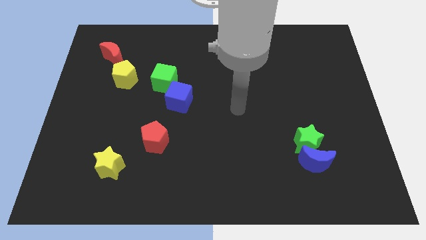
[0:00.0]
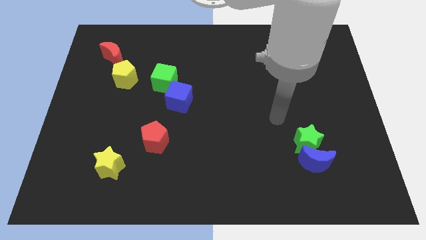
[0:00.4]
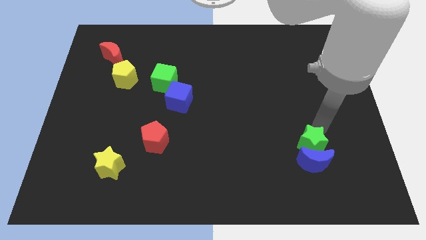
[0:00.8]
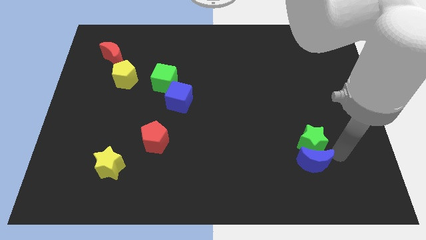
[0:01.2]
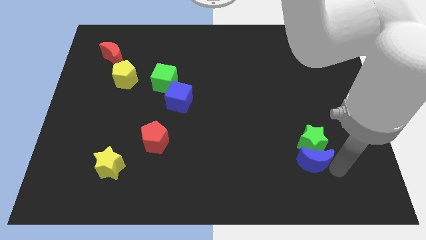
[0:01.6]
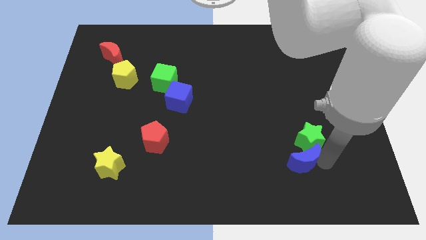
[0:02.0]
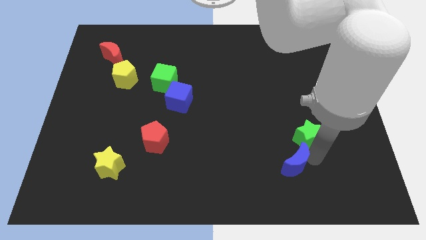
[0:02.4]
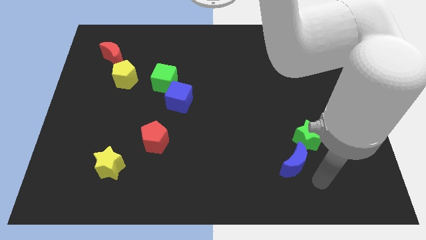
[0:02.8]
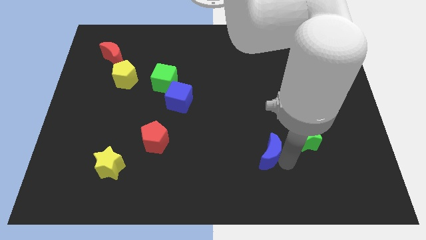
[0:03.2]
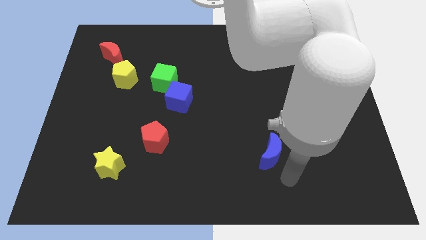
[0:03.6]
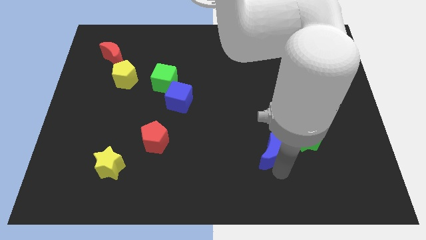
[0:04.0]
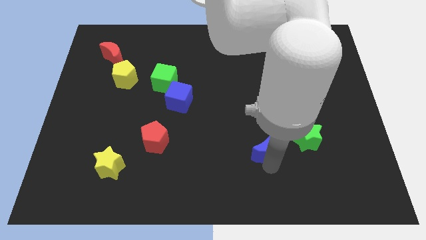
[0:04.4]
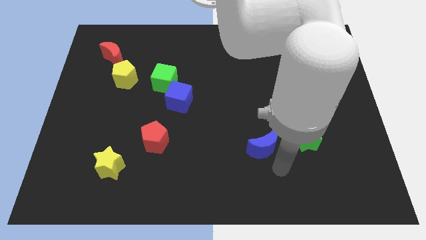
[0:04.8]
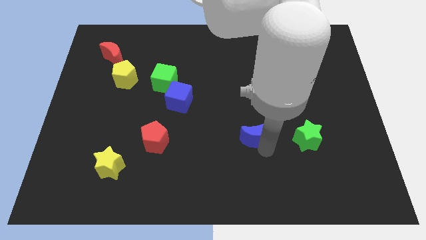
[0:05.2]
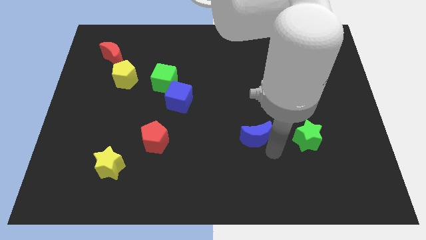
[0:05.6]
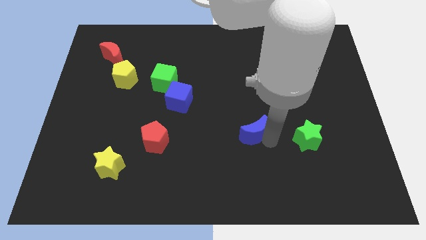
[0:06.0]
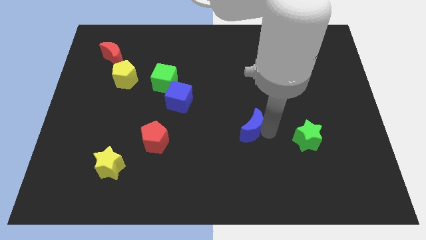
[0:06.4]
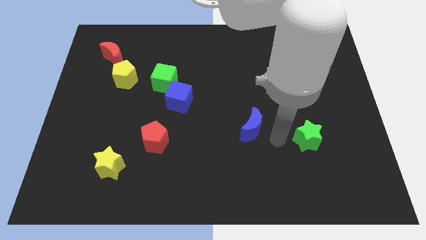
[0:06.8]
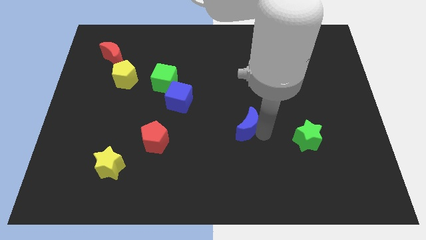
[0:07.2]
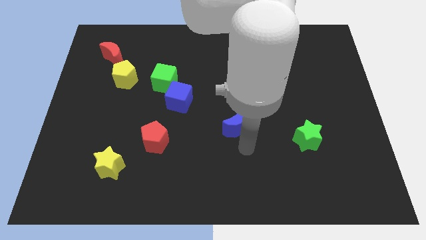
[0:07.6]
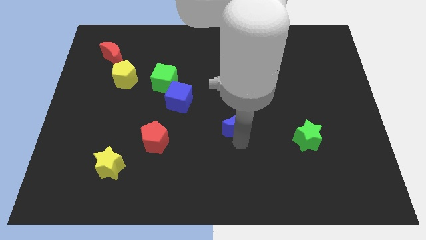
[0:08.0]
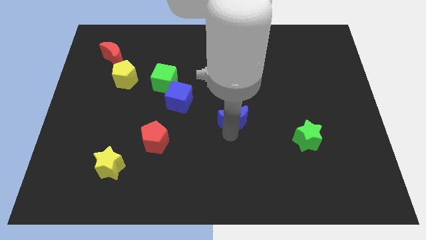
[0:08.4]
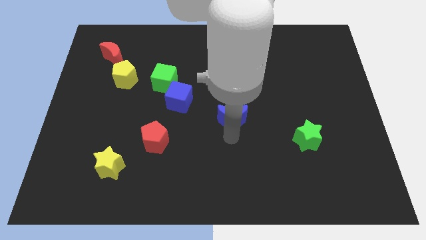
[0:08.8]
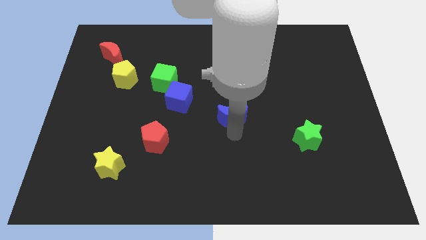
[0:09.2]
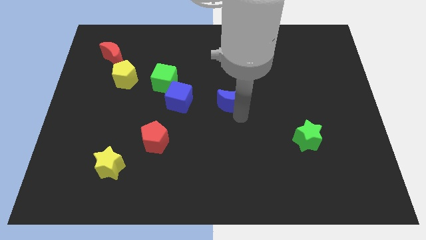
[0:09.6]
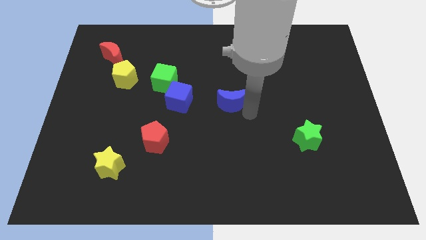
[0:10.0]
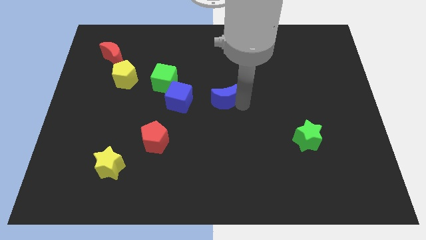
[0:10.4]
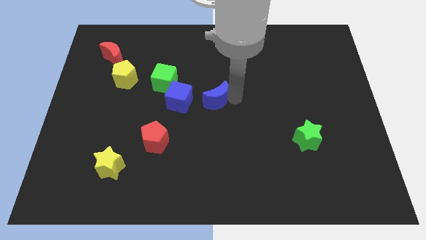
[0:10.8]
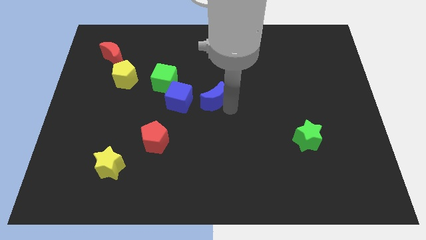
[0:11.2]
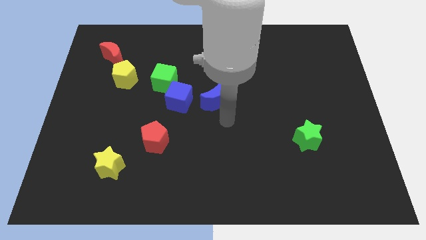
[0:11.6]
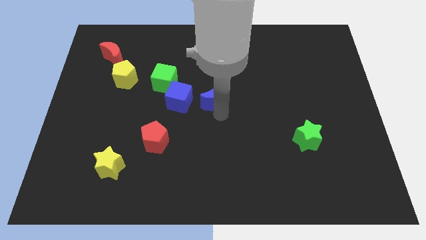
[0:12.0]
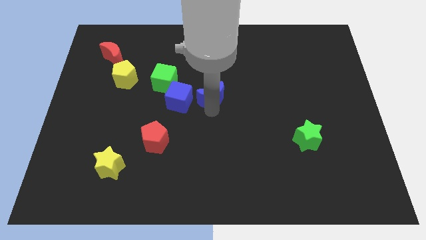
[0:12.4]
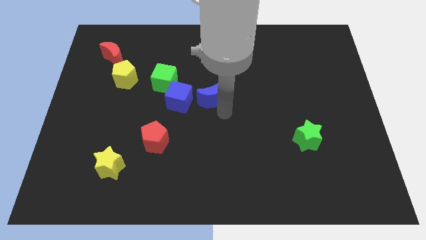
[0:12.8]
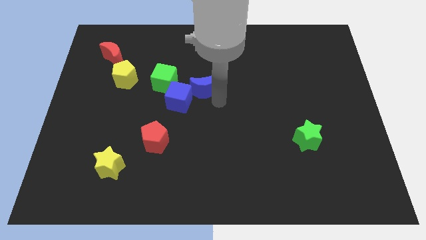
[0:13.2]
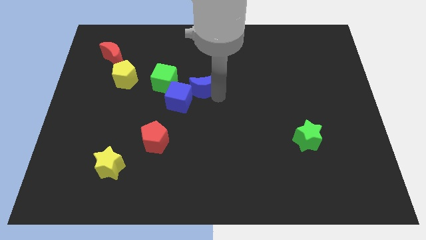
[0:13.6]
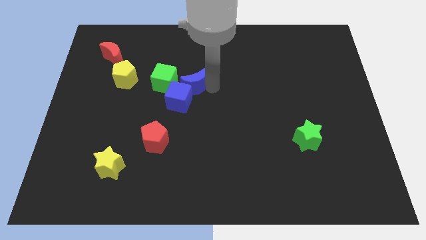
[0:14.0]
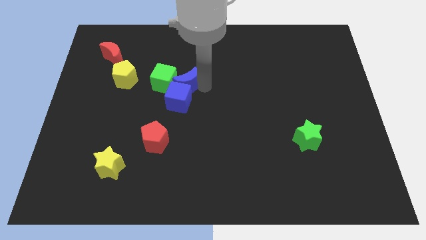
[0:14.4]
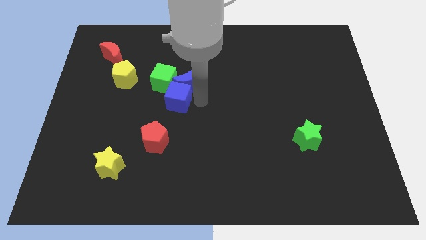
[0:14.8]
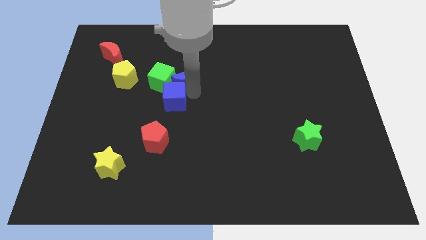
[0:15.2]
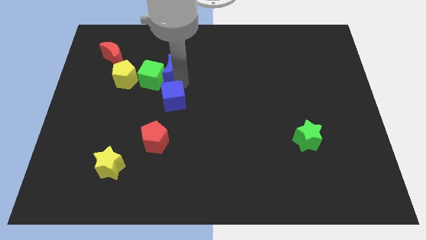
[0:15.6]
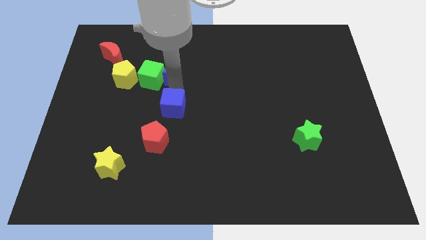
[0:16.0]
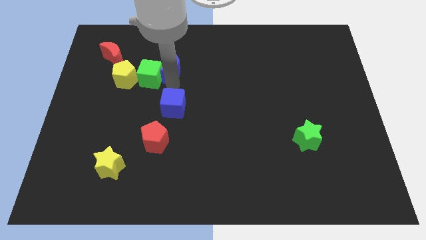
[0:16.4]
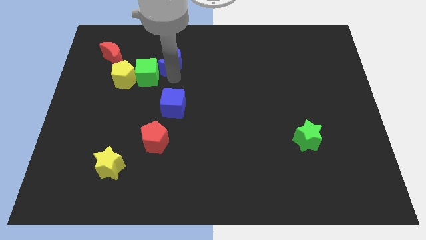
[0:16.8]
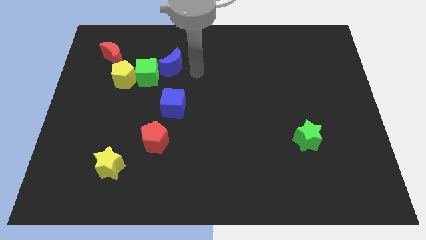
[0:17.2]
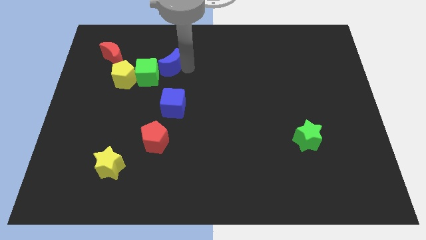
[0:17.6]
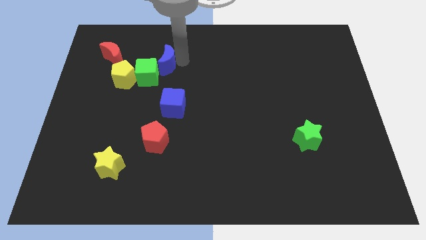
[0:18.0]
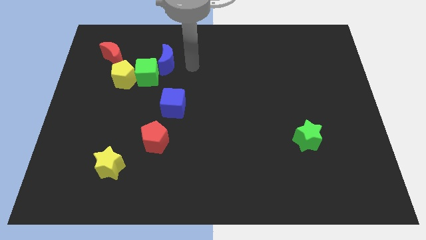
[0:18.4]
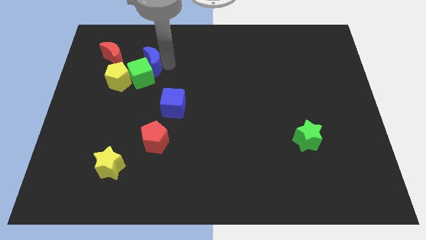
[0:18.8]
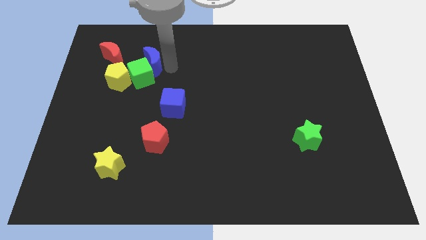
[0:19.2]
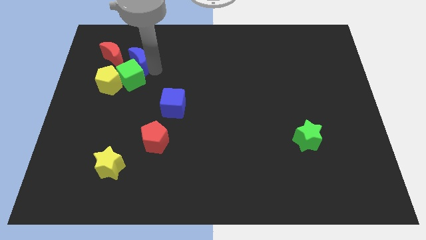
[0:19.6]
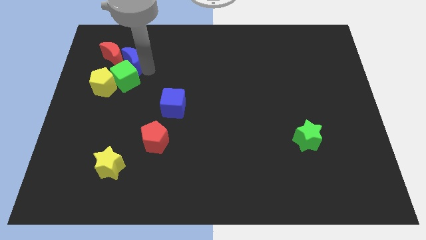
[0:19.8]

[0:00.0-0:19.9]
slide the blue moon towards the red moon

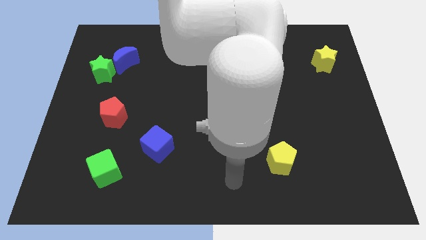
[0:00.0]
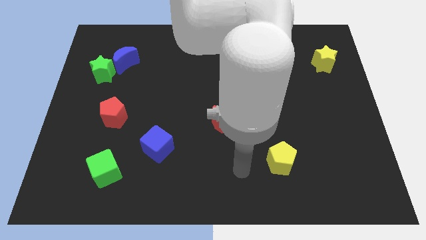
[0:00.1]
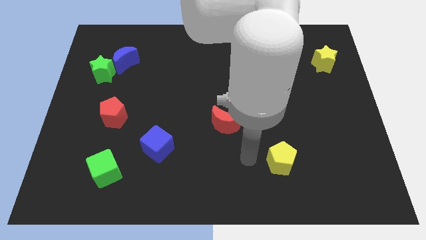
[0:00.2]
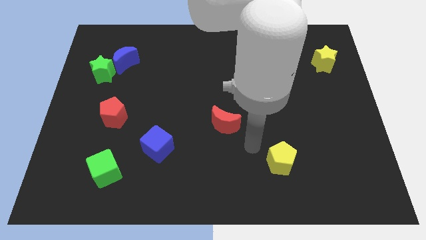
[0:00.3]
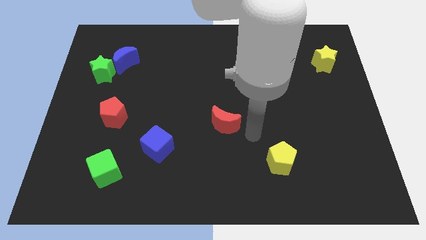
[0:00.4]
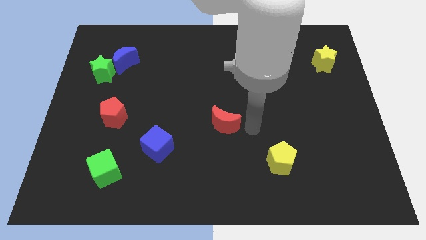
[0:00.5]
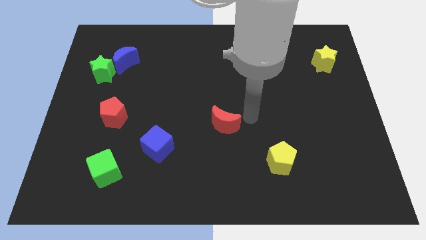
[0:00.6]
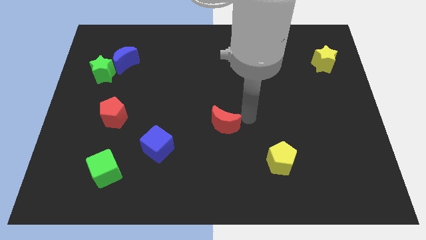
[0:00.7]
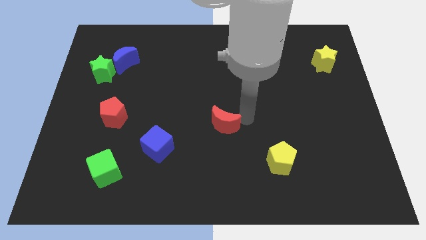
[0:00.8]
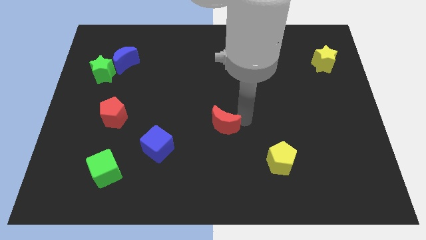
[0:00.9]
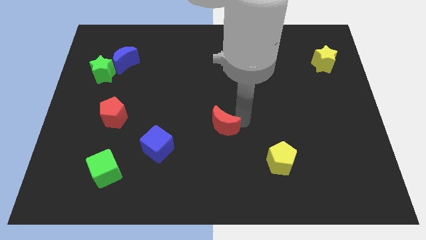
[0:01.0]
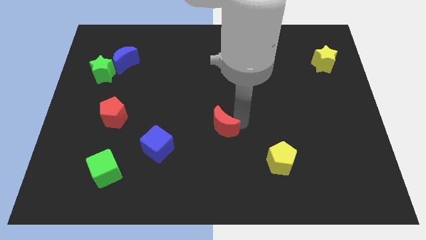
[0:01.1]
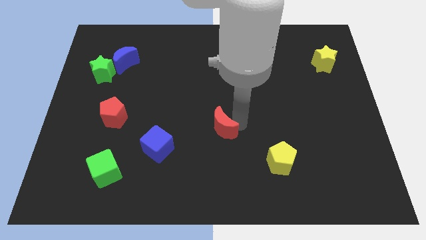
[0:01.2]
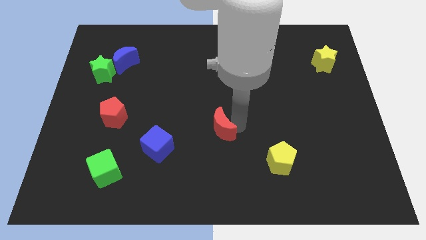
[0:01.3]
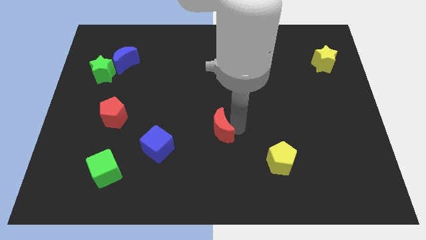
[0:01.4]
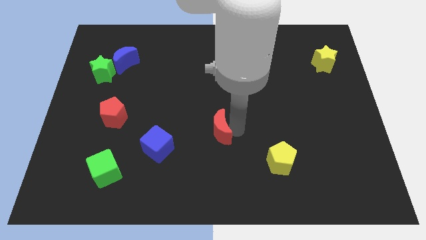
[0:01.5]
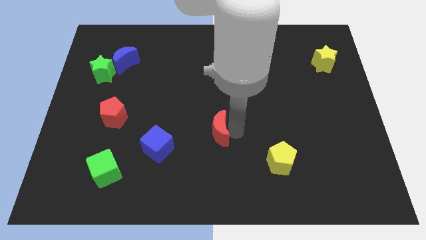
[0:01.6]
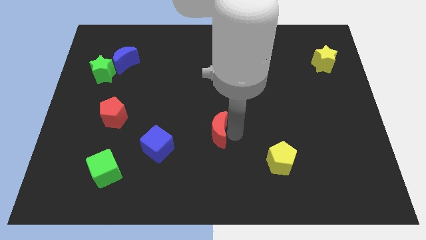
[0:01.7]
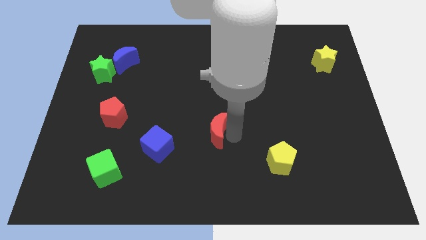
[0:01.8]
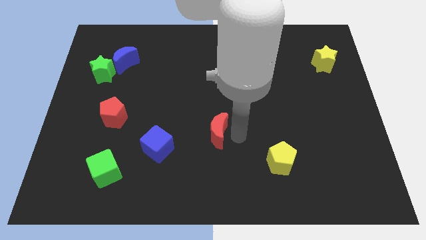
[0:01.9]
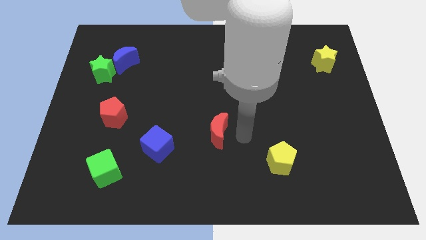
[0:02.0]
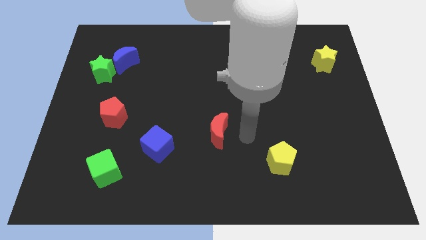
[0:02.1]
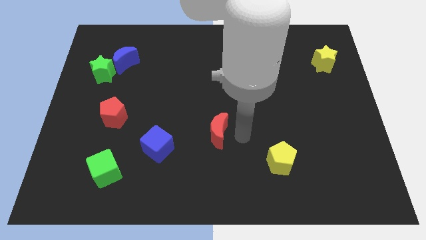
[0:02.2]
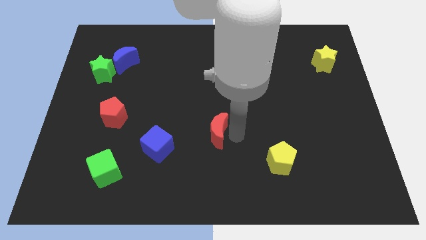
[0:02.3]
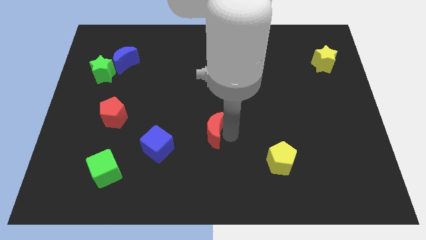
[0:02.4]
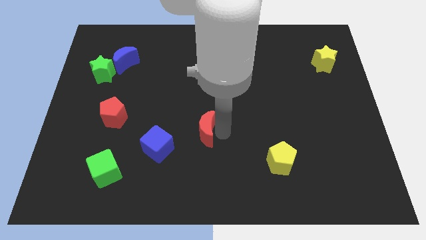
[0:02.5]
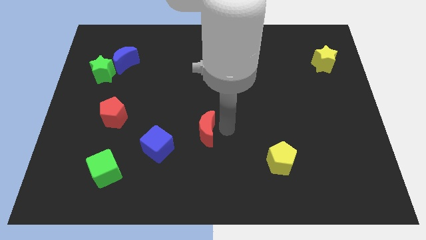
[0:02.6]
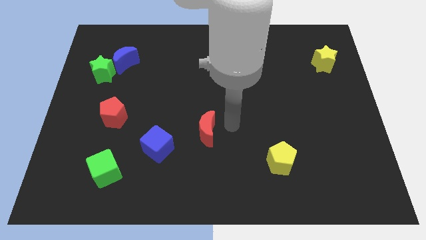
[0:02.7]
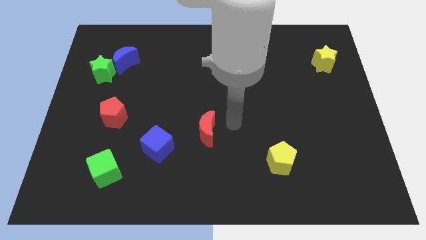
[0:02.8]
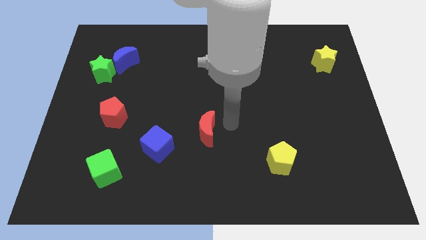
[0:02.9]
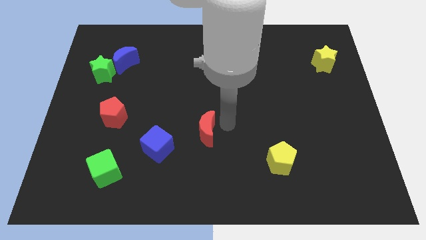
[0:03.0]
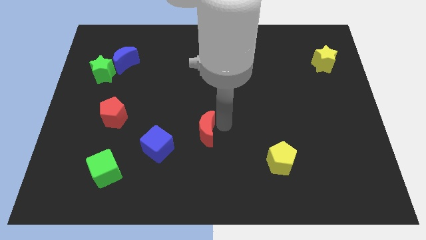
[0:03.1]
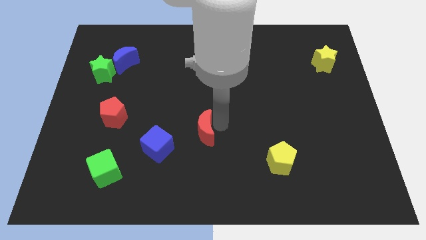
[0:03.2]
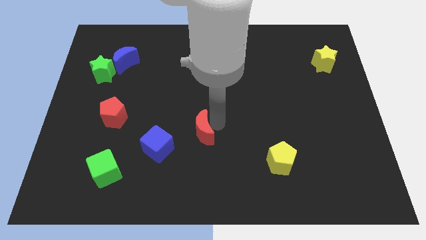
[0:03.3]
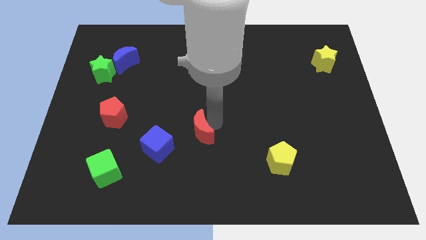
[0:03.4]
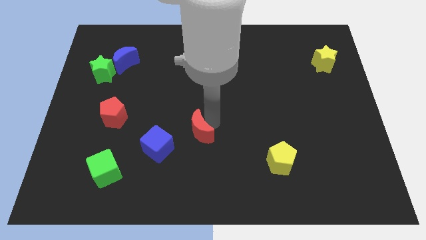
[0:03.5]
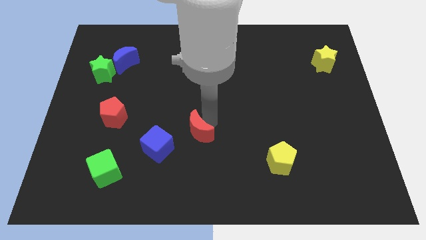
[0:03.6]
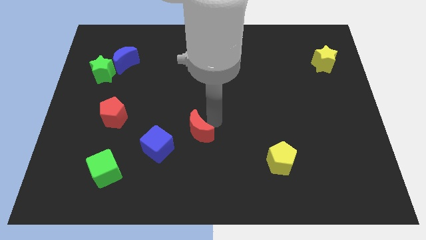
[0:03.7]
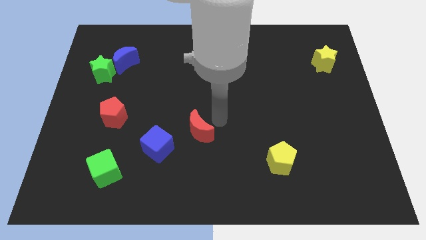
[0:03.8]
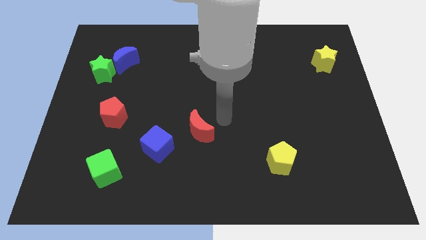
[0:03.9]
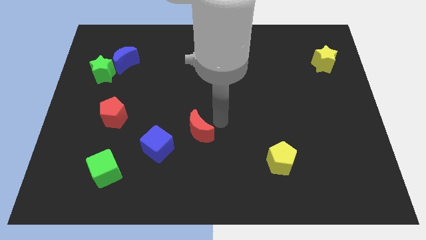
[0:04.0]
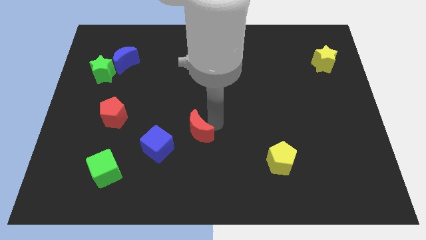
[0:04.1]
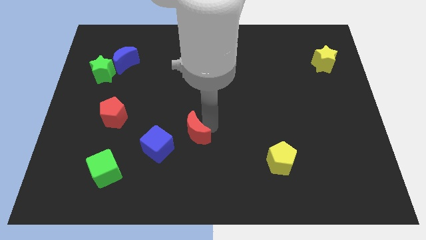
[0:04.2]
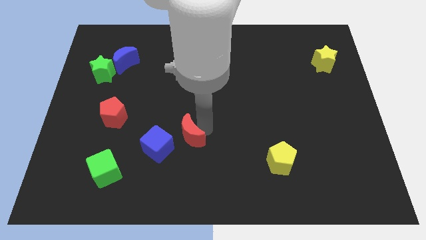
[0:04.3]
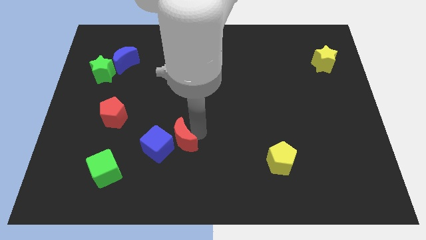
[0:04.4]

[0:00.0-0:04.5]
put the red moon close to the blue cube
